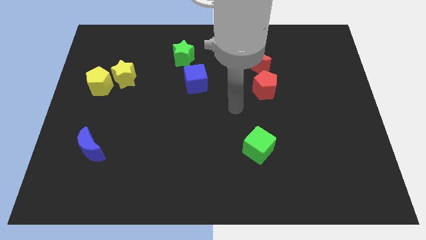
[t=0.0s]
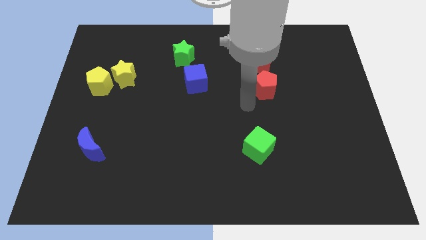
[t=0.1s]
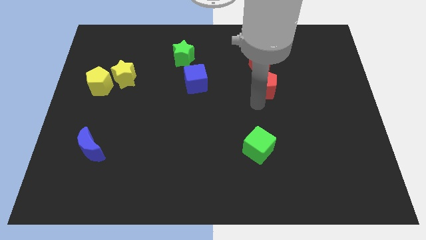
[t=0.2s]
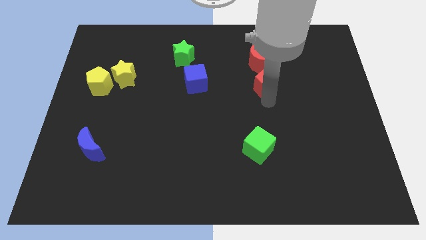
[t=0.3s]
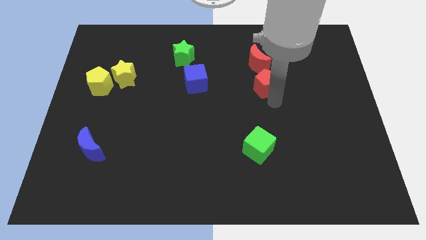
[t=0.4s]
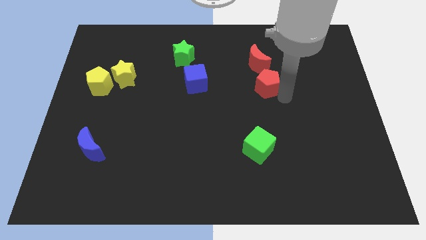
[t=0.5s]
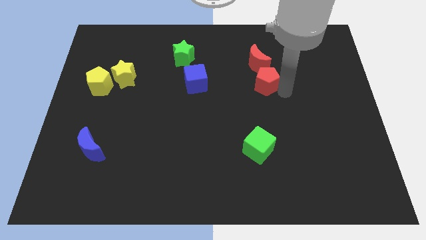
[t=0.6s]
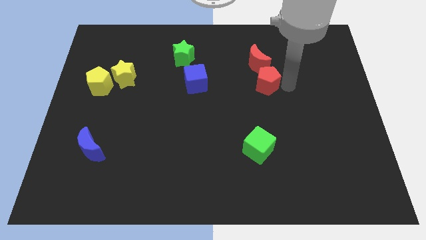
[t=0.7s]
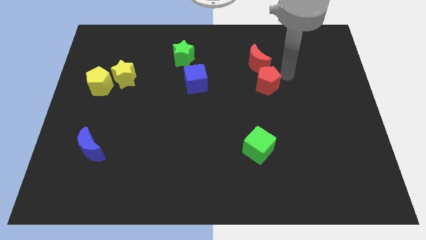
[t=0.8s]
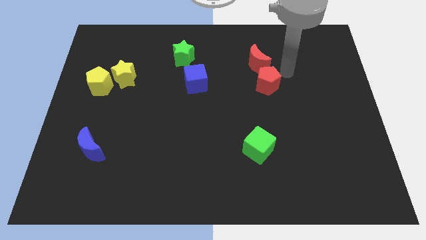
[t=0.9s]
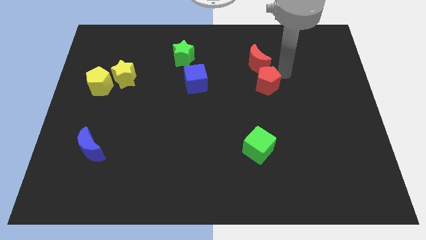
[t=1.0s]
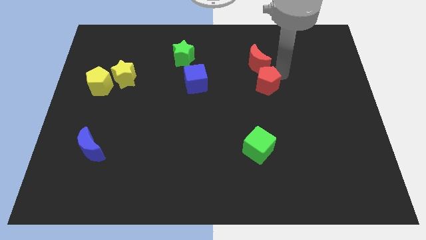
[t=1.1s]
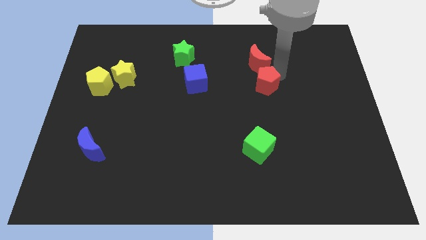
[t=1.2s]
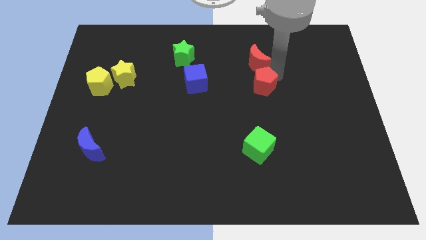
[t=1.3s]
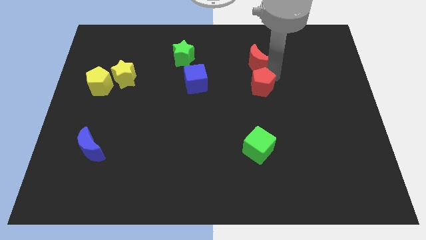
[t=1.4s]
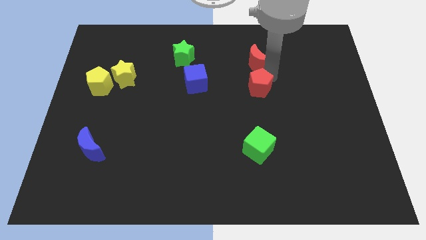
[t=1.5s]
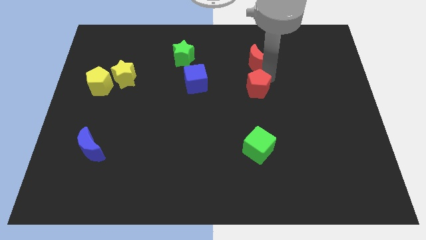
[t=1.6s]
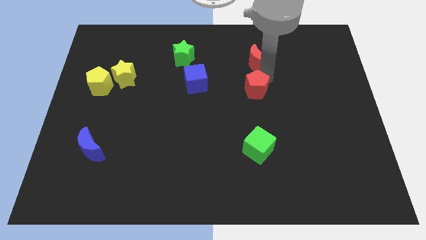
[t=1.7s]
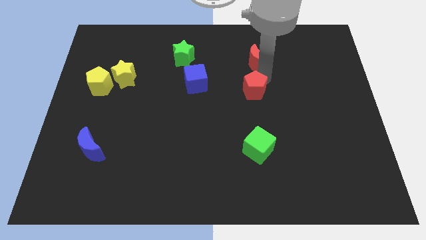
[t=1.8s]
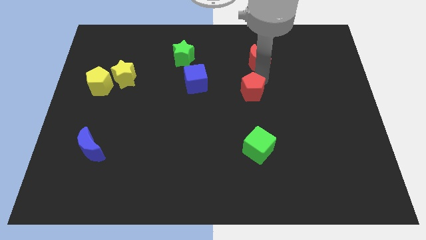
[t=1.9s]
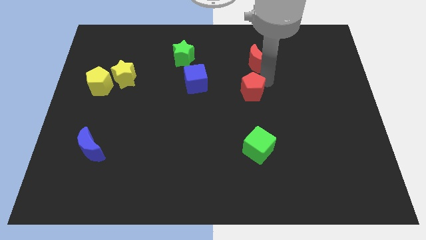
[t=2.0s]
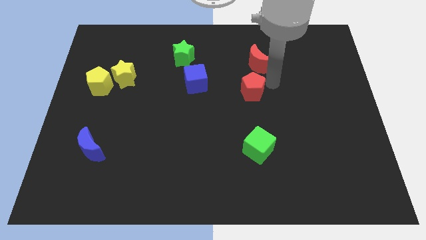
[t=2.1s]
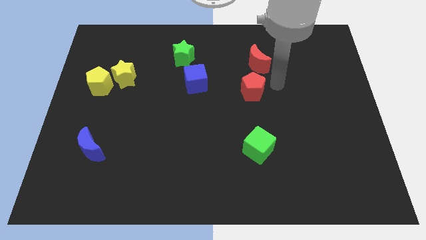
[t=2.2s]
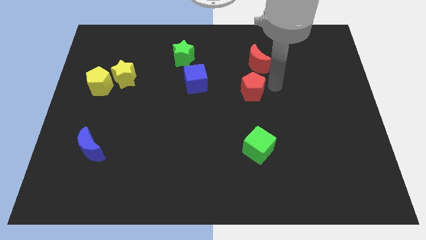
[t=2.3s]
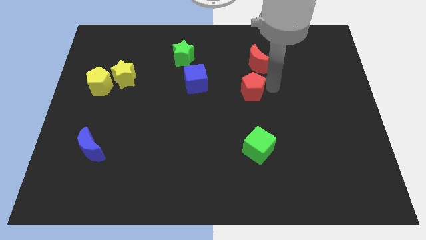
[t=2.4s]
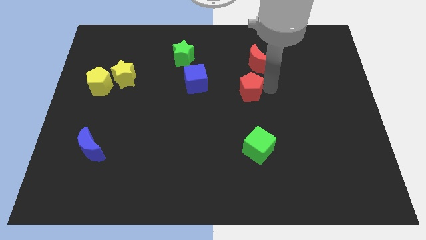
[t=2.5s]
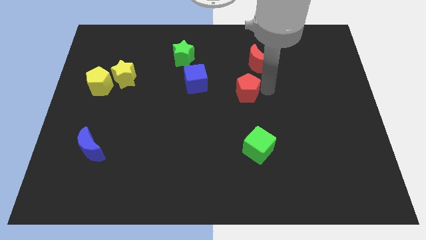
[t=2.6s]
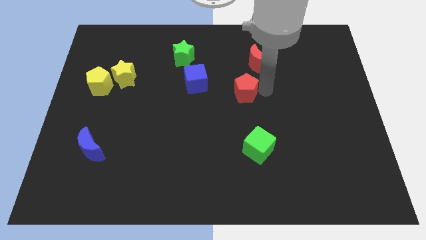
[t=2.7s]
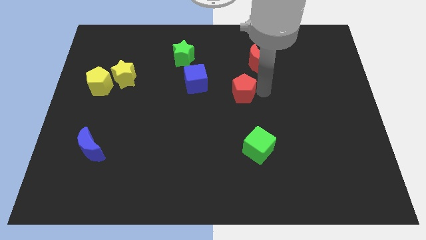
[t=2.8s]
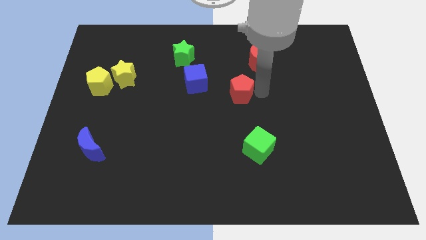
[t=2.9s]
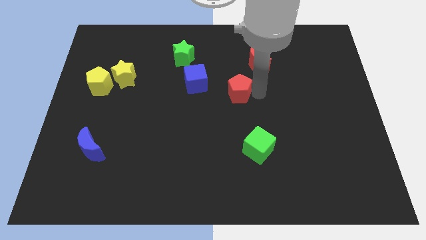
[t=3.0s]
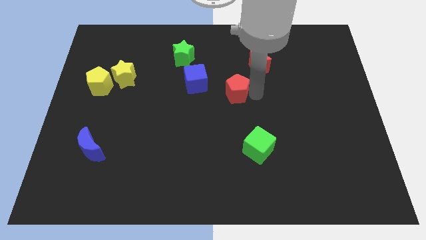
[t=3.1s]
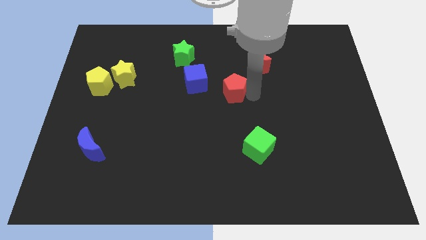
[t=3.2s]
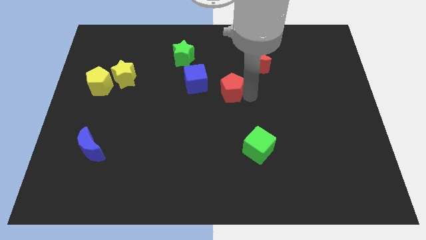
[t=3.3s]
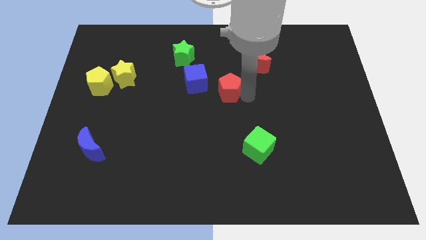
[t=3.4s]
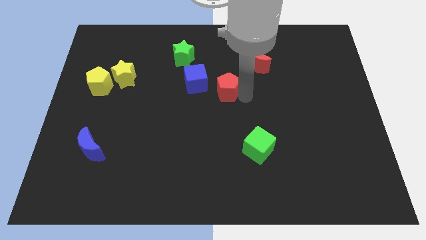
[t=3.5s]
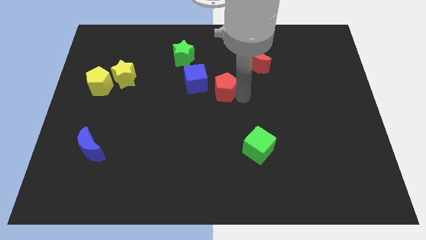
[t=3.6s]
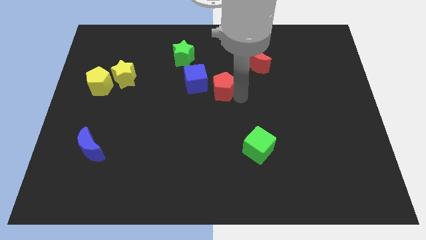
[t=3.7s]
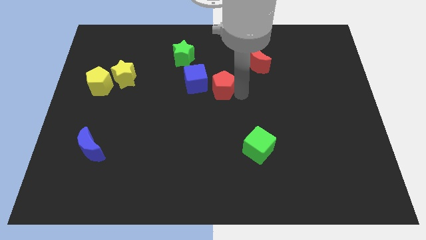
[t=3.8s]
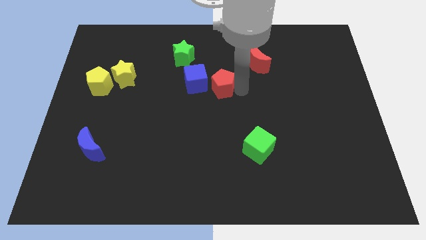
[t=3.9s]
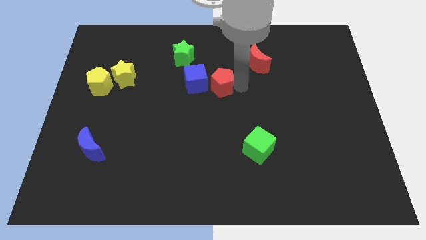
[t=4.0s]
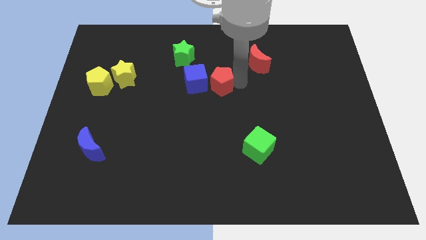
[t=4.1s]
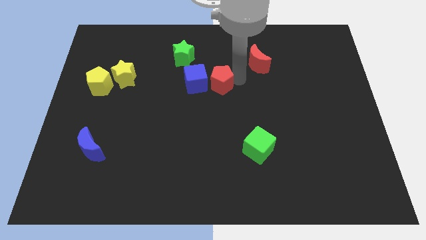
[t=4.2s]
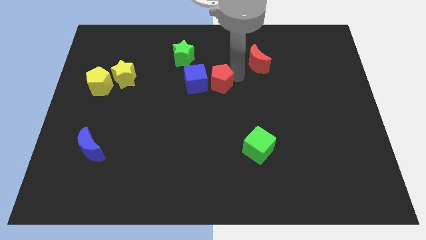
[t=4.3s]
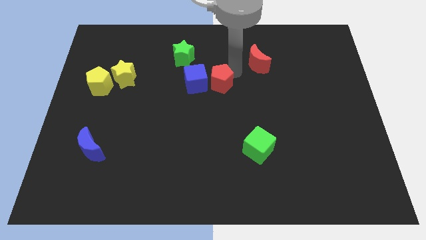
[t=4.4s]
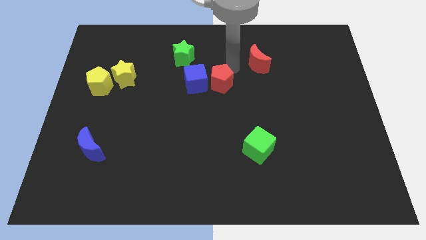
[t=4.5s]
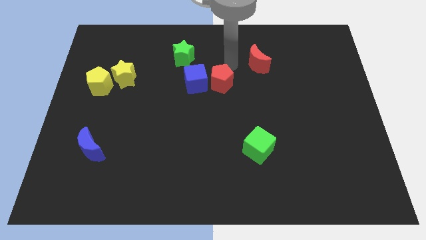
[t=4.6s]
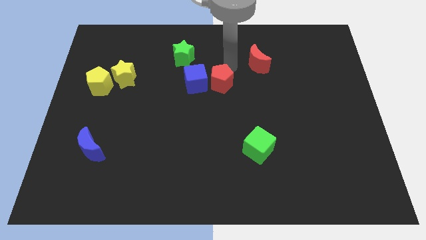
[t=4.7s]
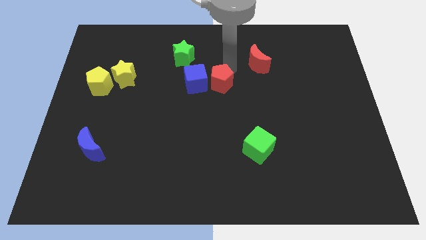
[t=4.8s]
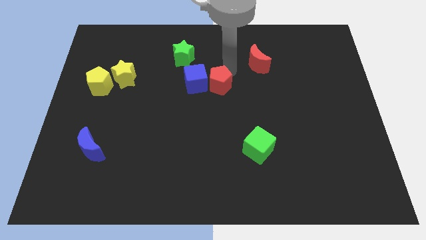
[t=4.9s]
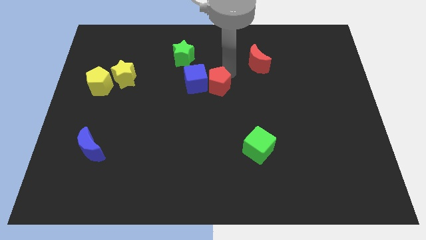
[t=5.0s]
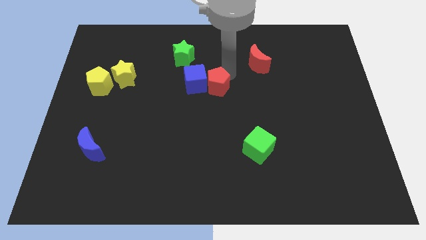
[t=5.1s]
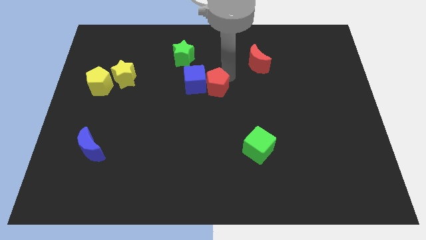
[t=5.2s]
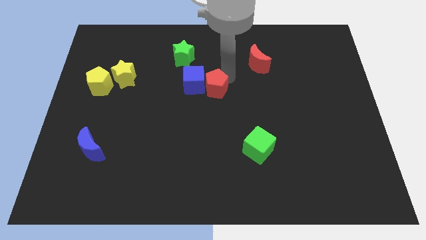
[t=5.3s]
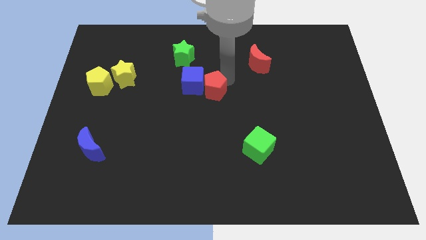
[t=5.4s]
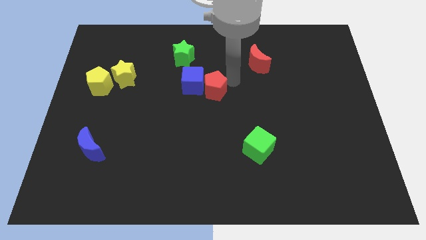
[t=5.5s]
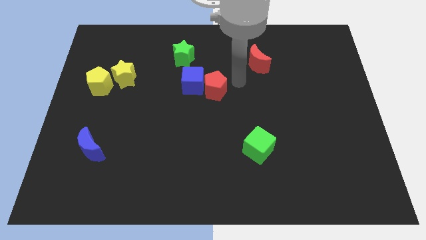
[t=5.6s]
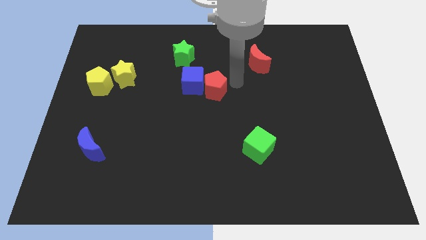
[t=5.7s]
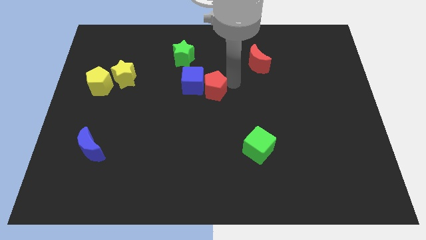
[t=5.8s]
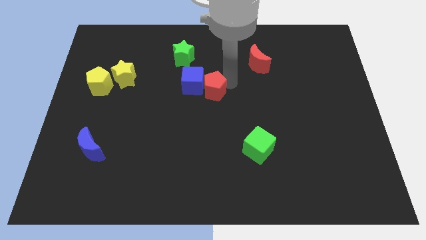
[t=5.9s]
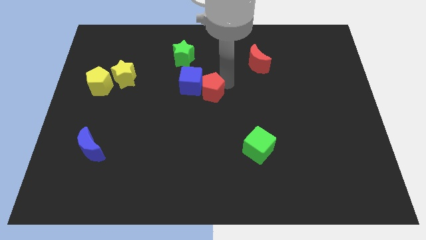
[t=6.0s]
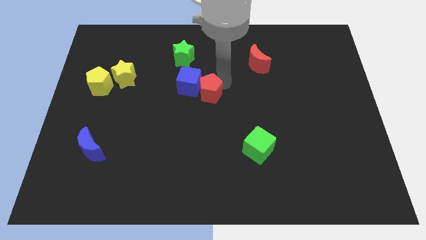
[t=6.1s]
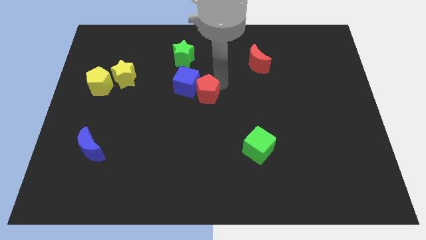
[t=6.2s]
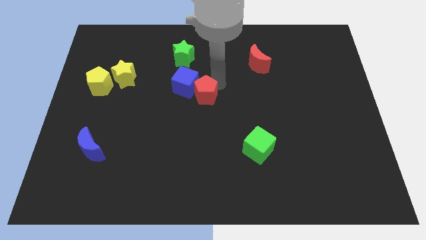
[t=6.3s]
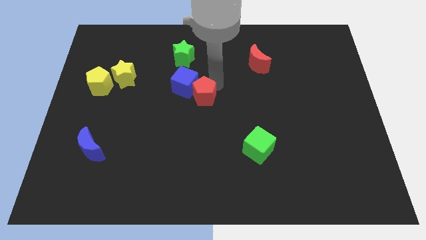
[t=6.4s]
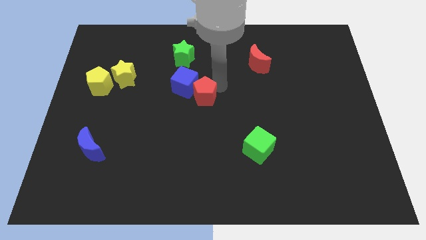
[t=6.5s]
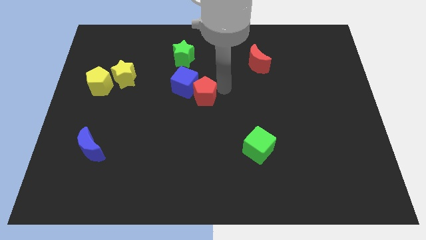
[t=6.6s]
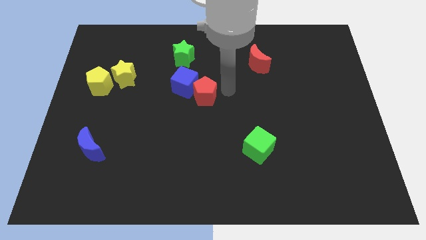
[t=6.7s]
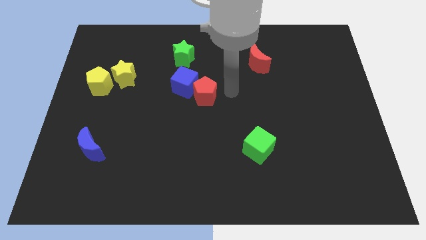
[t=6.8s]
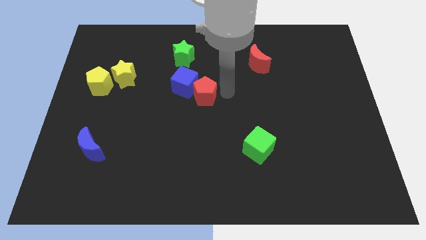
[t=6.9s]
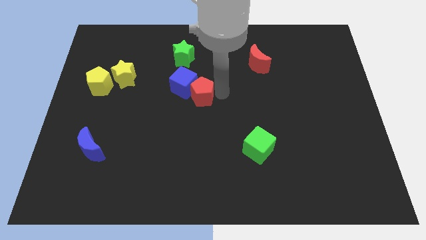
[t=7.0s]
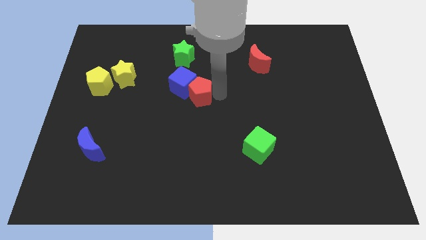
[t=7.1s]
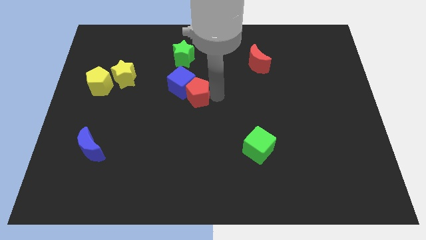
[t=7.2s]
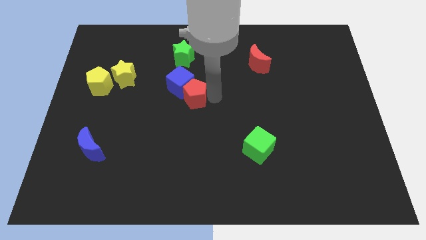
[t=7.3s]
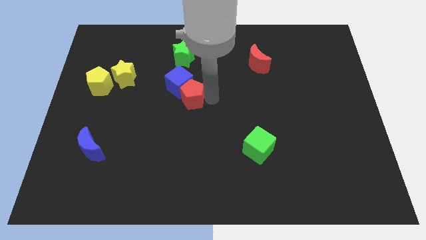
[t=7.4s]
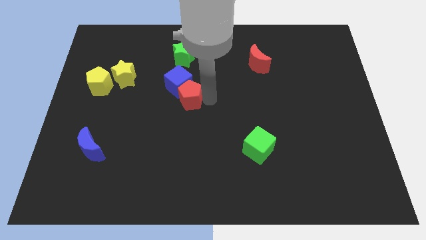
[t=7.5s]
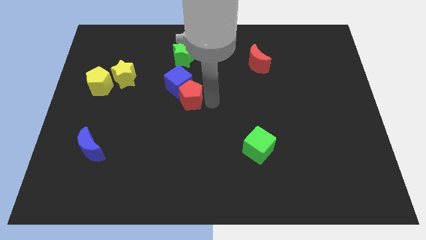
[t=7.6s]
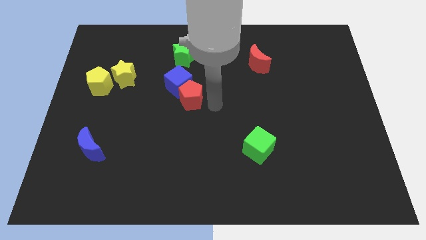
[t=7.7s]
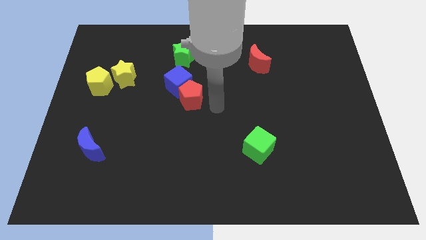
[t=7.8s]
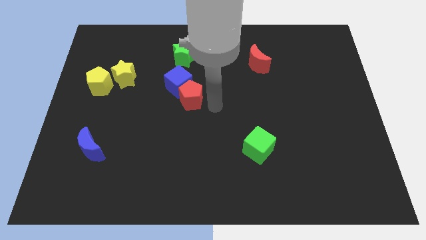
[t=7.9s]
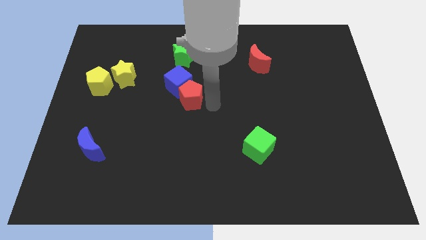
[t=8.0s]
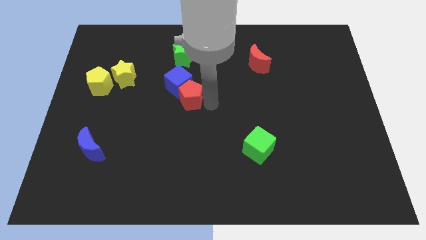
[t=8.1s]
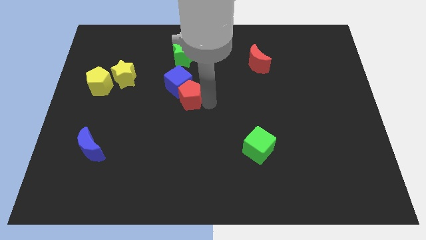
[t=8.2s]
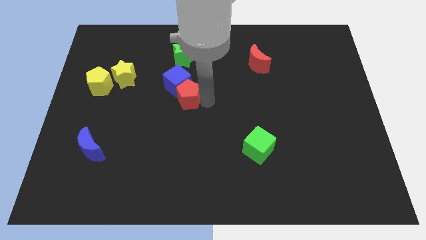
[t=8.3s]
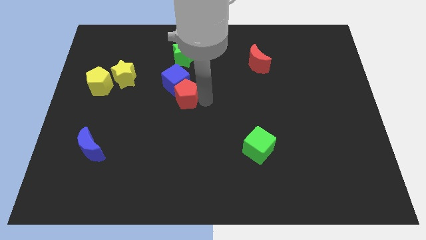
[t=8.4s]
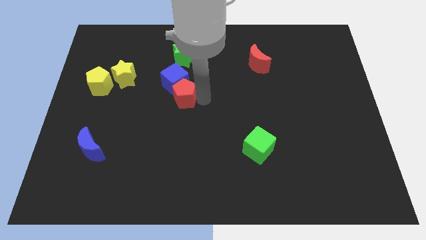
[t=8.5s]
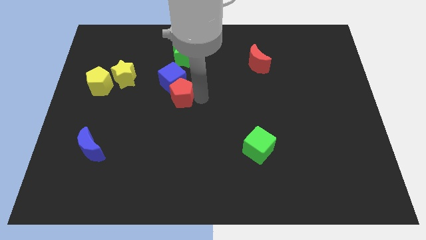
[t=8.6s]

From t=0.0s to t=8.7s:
push the red pentagon to the left
